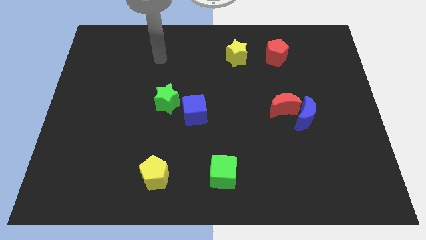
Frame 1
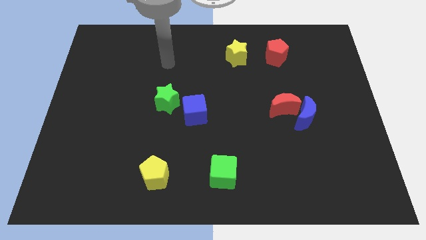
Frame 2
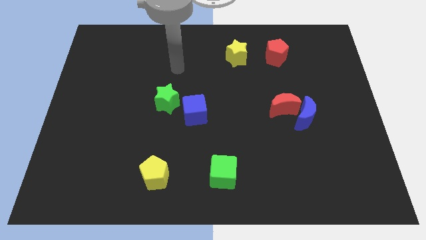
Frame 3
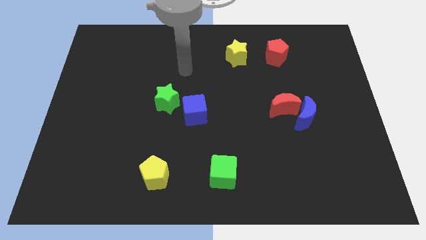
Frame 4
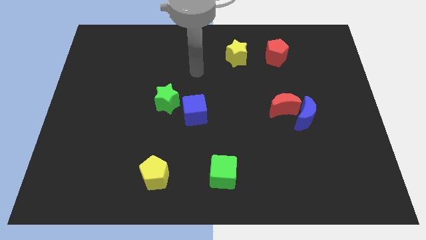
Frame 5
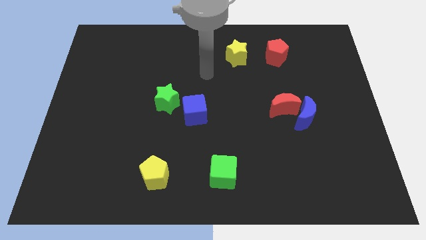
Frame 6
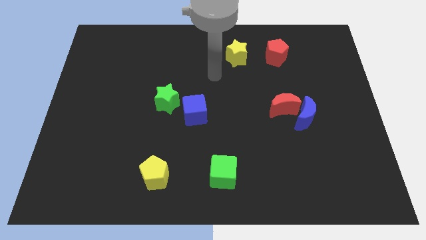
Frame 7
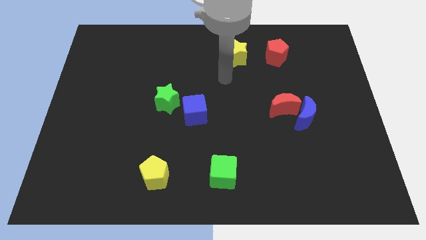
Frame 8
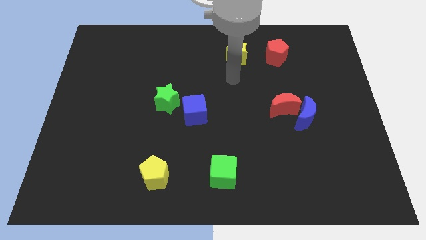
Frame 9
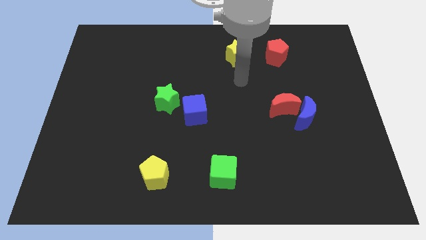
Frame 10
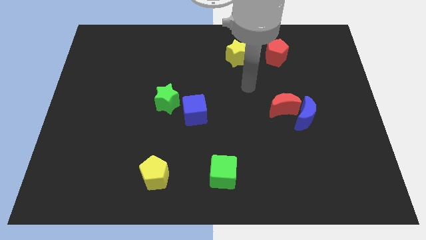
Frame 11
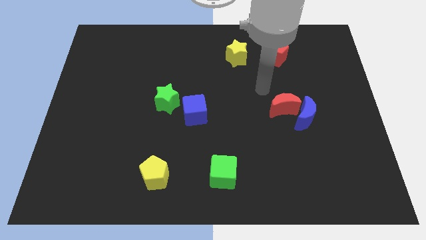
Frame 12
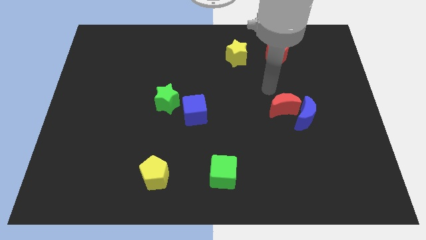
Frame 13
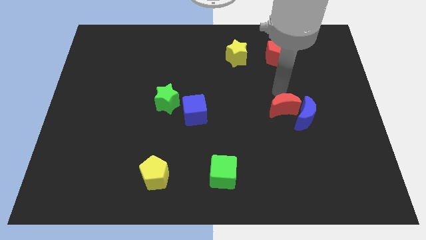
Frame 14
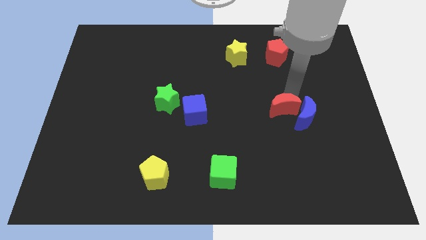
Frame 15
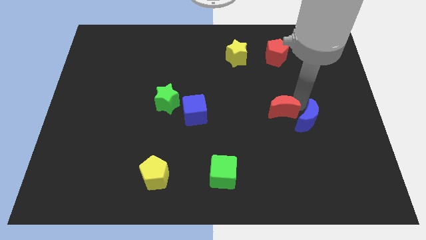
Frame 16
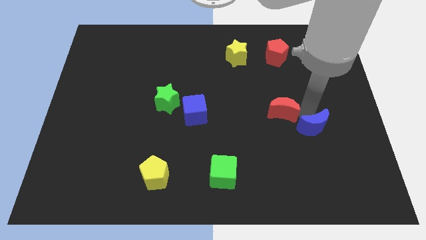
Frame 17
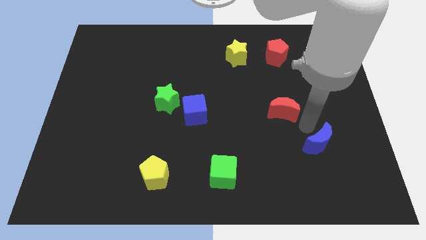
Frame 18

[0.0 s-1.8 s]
move the red moon away from the blue moon

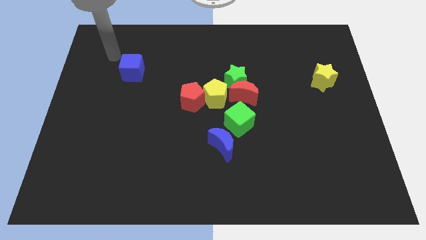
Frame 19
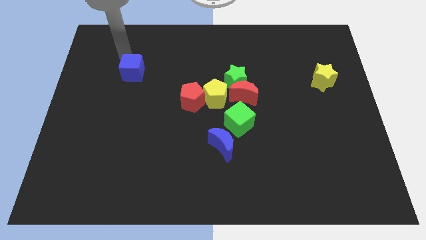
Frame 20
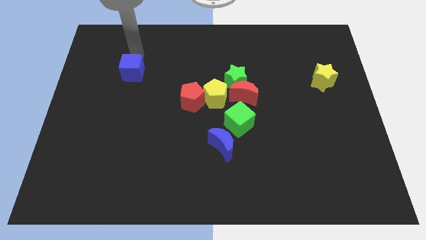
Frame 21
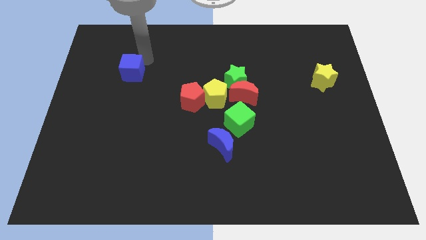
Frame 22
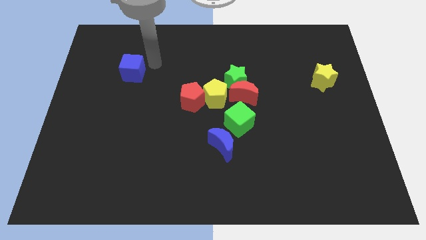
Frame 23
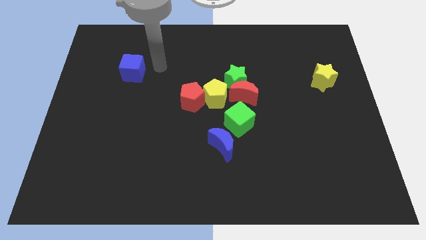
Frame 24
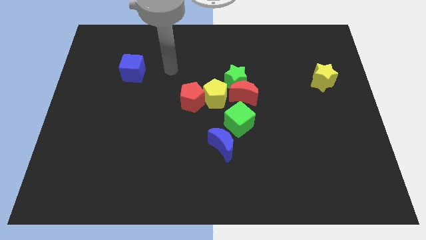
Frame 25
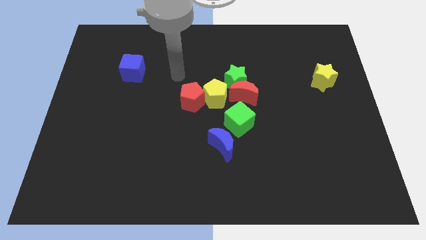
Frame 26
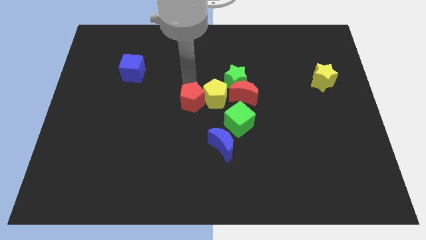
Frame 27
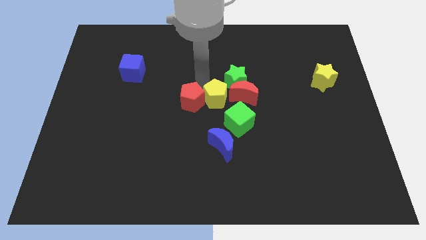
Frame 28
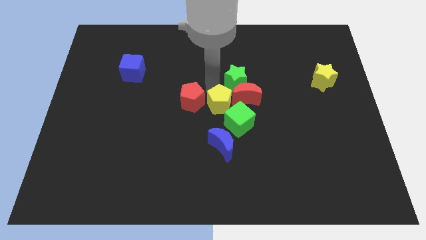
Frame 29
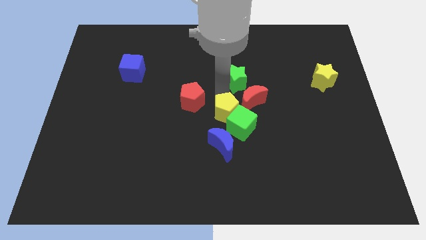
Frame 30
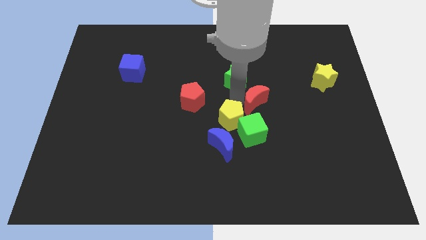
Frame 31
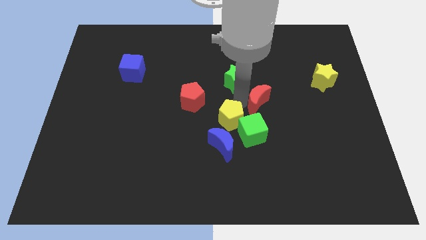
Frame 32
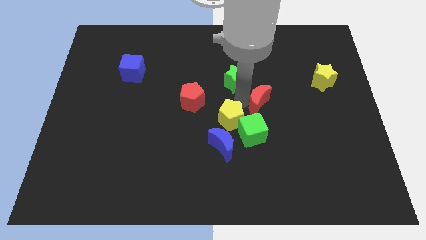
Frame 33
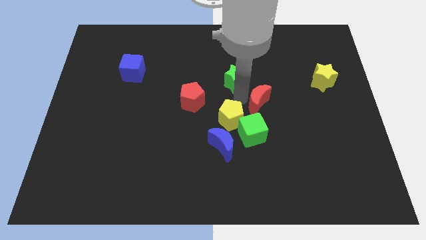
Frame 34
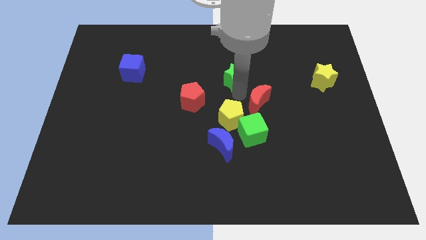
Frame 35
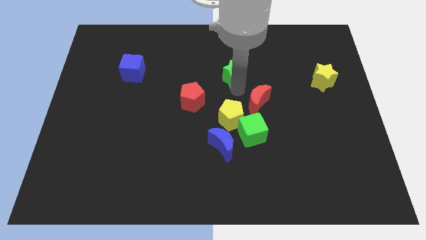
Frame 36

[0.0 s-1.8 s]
move the green star away from the red moon and yellow pentagon

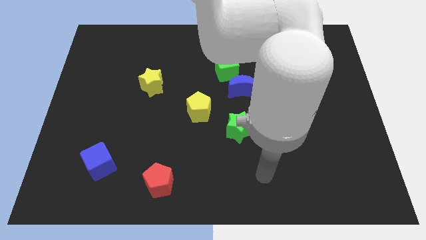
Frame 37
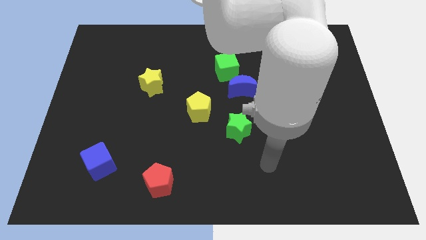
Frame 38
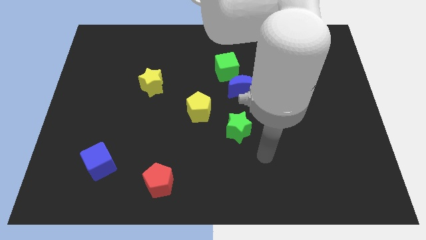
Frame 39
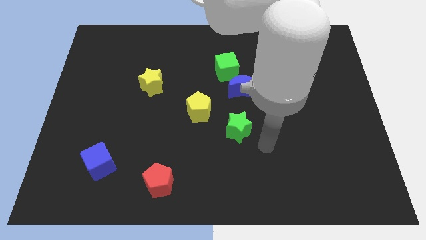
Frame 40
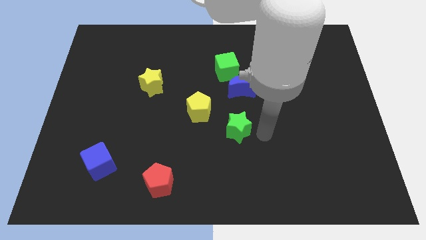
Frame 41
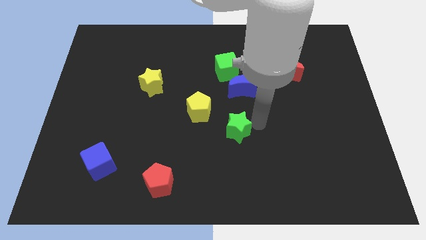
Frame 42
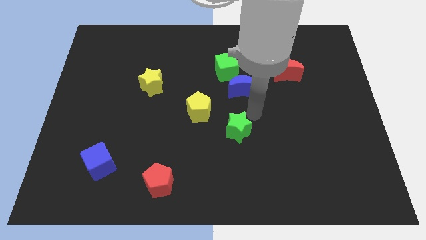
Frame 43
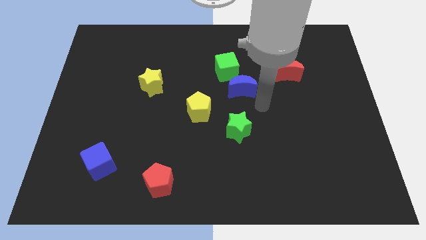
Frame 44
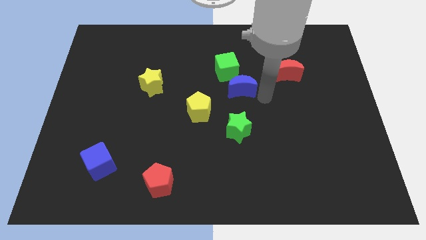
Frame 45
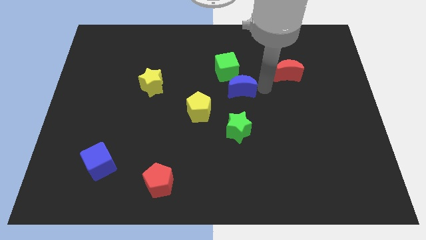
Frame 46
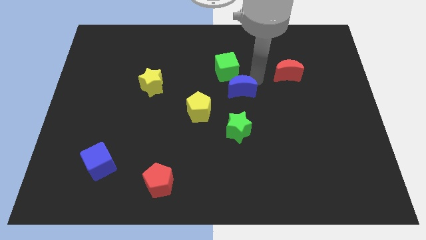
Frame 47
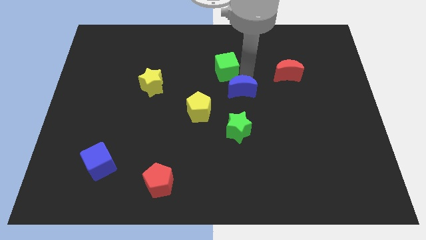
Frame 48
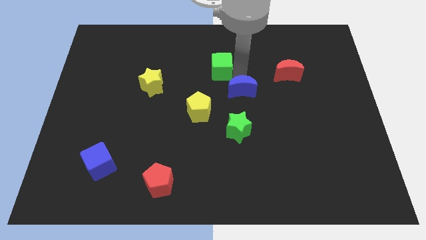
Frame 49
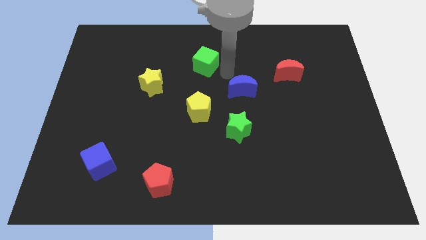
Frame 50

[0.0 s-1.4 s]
pull the blue moon apart from the green cube

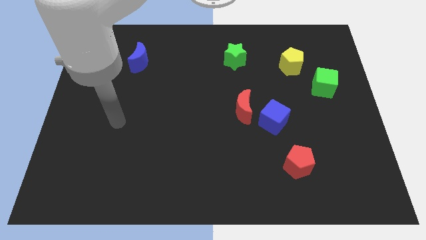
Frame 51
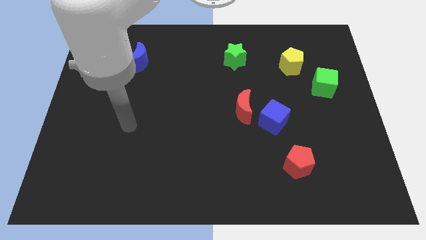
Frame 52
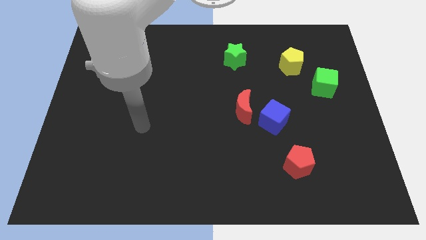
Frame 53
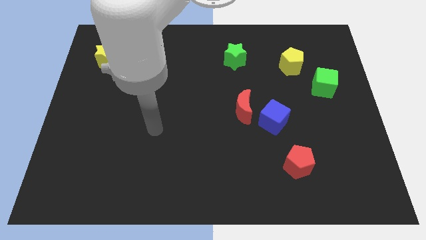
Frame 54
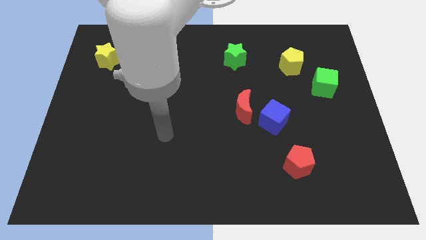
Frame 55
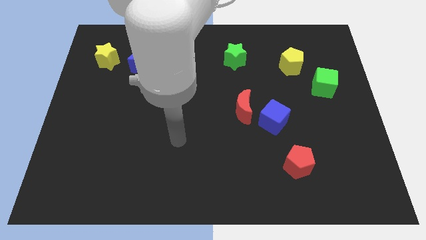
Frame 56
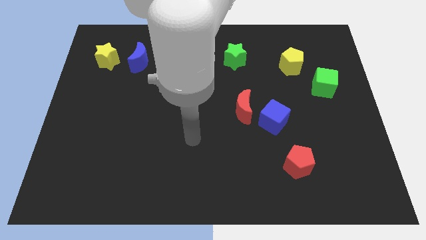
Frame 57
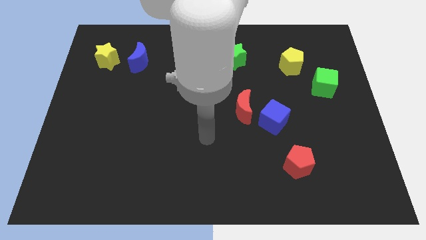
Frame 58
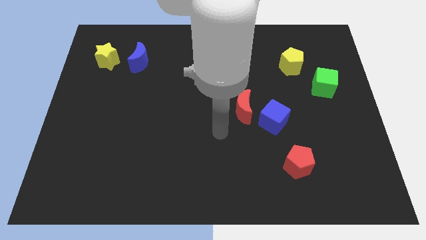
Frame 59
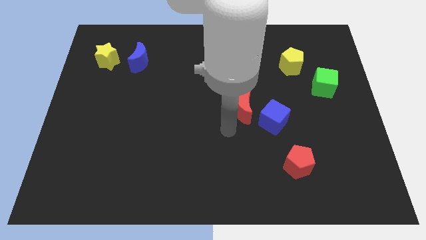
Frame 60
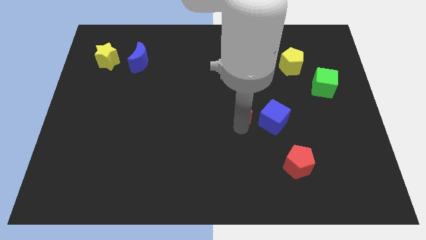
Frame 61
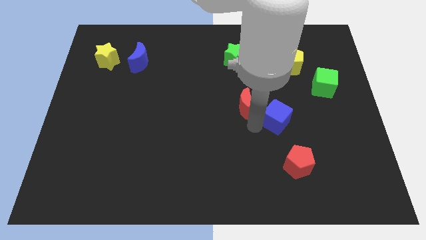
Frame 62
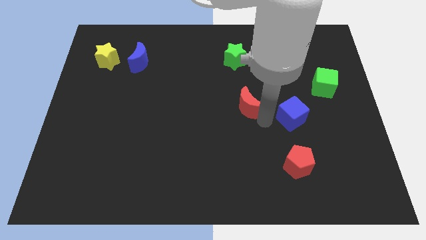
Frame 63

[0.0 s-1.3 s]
pull the red moon apart from the blue cube

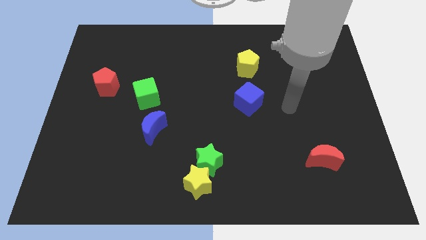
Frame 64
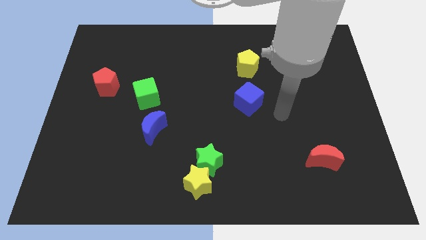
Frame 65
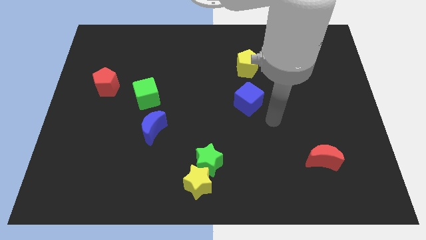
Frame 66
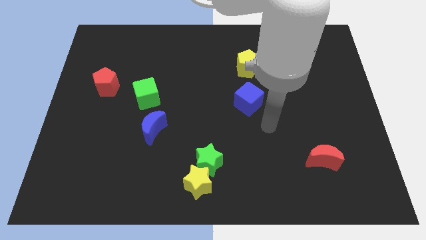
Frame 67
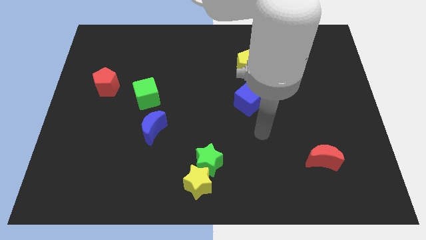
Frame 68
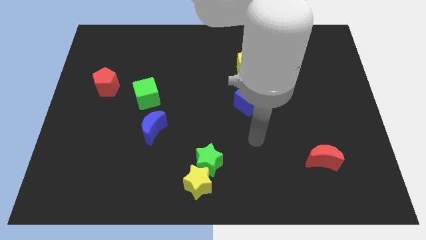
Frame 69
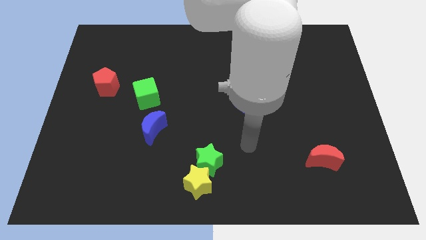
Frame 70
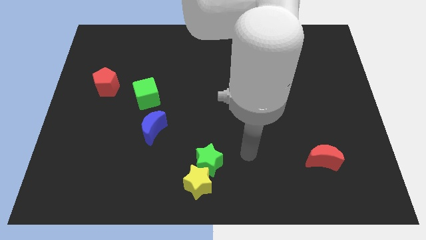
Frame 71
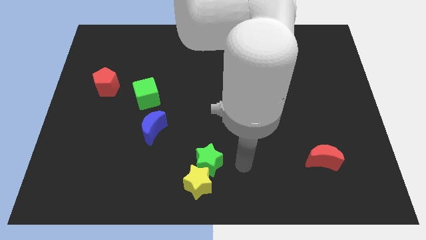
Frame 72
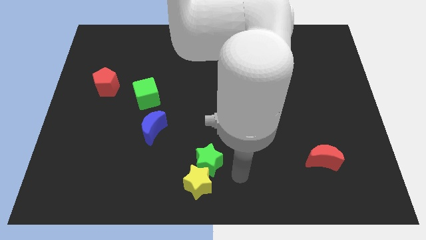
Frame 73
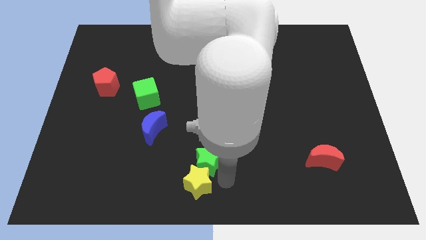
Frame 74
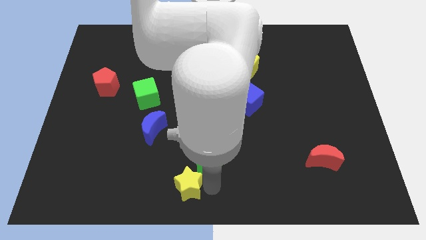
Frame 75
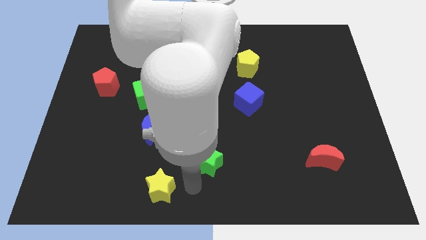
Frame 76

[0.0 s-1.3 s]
move the green star away from the yellow star

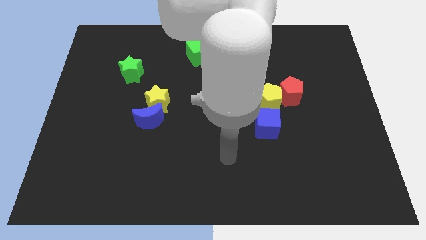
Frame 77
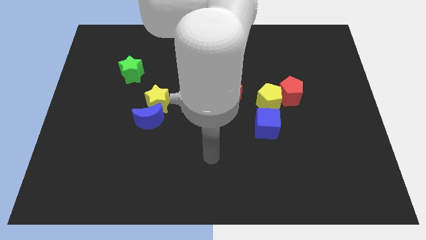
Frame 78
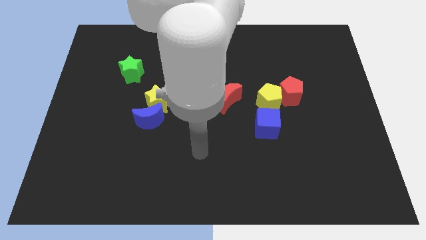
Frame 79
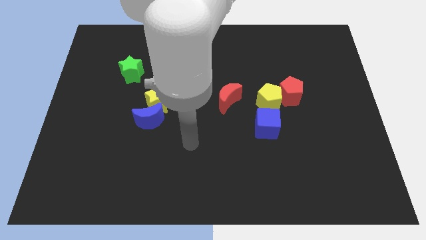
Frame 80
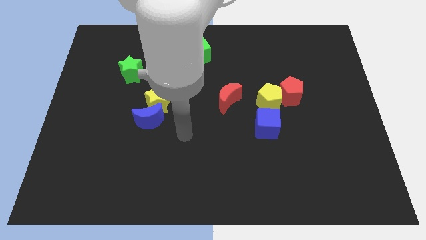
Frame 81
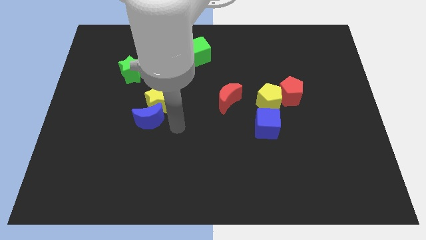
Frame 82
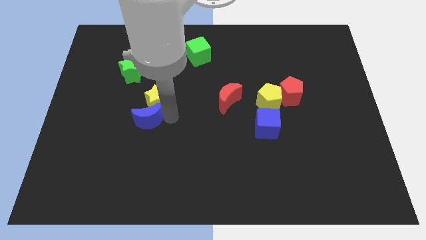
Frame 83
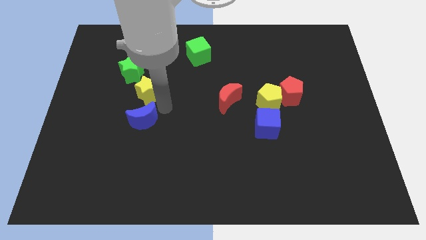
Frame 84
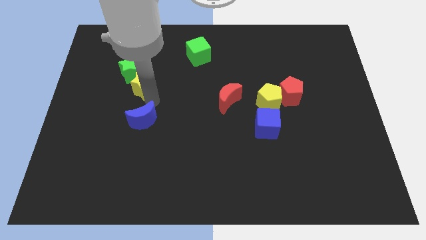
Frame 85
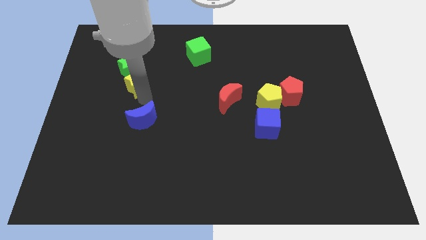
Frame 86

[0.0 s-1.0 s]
move the blue moon away from the yellow star

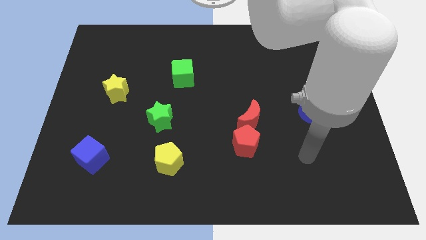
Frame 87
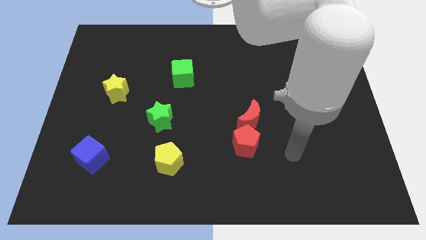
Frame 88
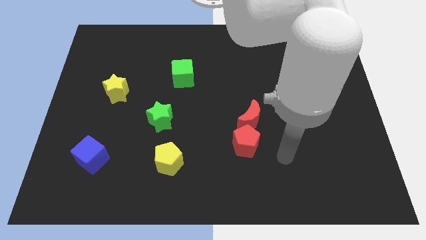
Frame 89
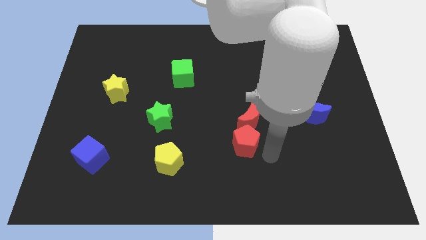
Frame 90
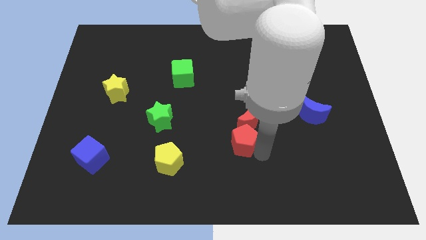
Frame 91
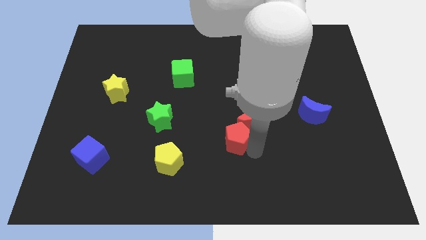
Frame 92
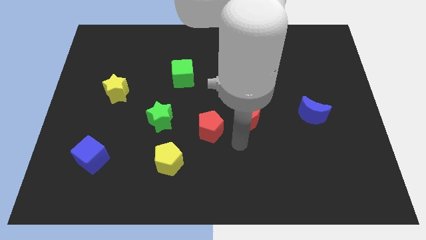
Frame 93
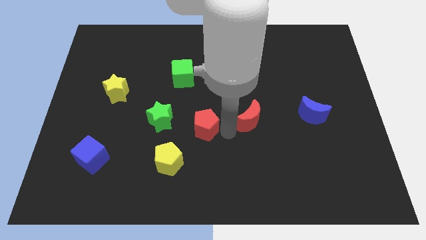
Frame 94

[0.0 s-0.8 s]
pull the red moon apart from the red pentagon
